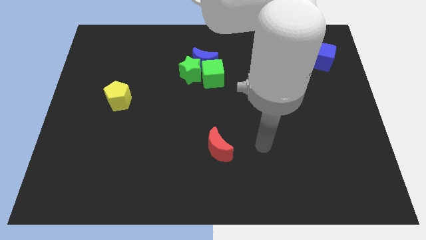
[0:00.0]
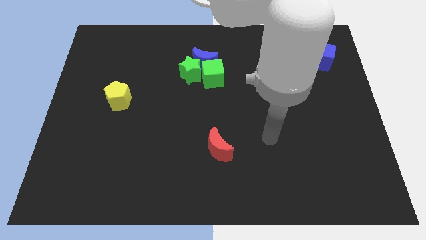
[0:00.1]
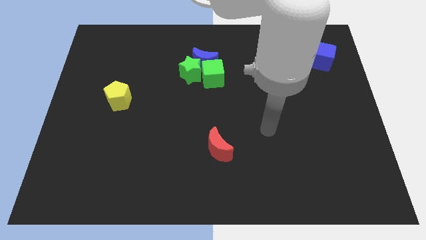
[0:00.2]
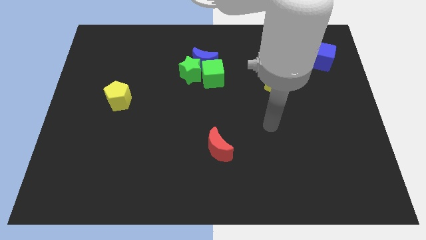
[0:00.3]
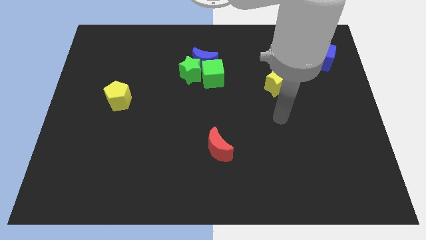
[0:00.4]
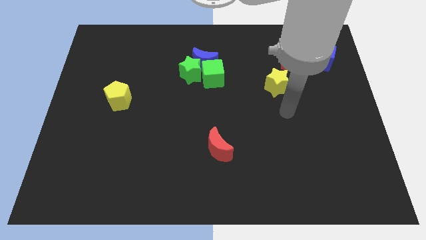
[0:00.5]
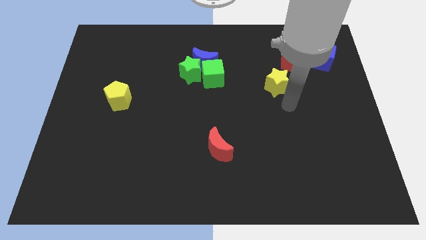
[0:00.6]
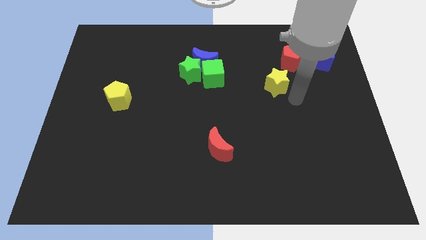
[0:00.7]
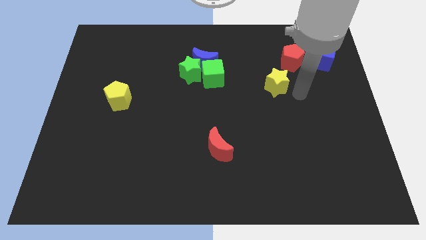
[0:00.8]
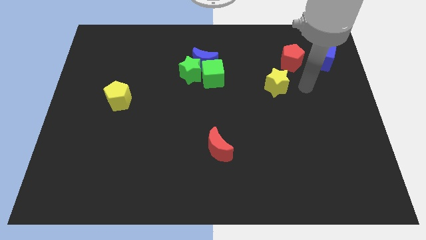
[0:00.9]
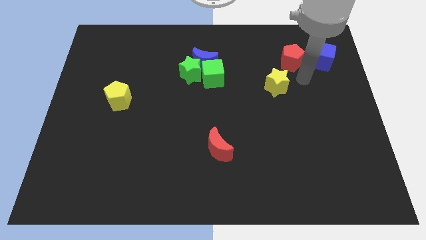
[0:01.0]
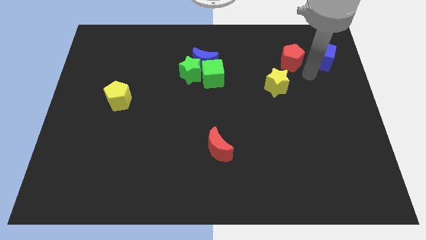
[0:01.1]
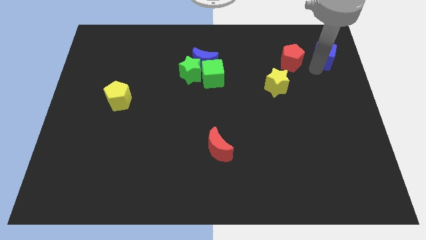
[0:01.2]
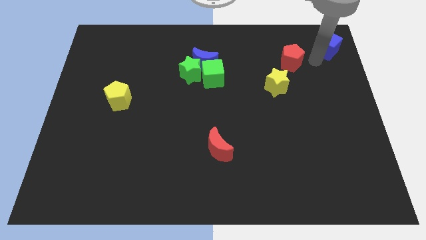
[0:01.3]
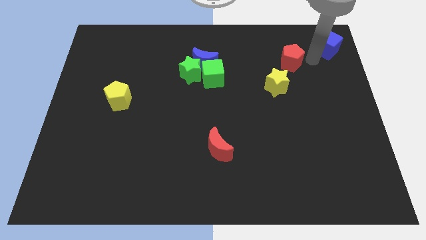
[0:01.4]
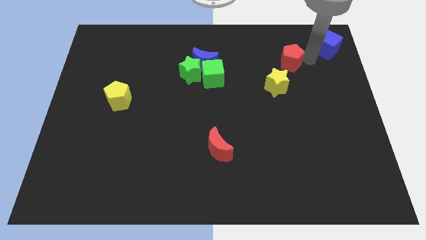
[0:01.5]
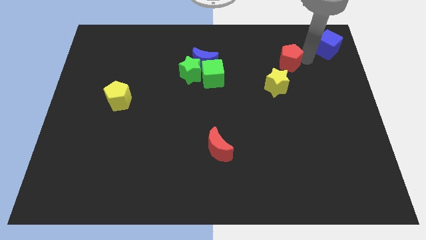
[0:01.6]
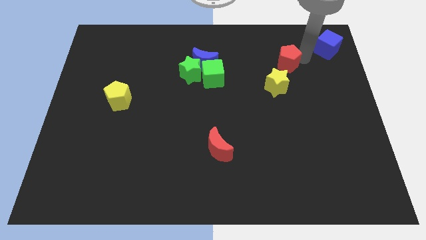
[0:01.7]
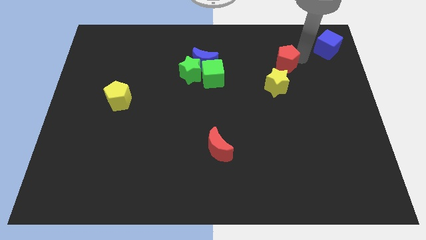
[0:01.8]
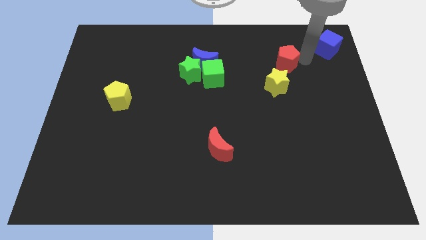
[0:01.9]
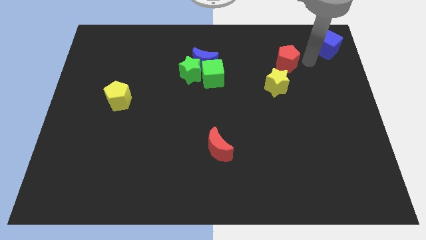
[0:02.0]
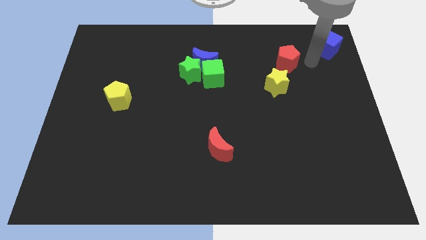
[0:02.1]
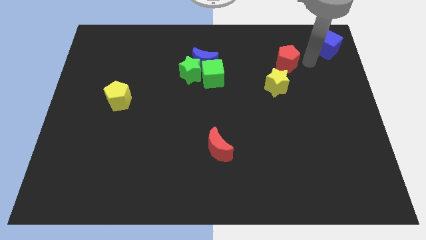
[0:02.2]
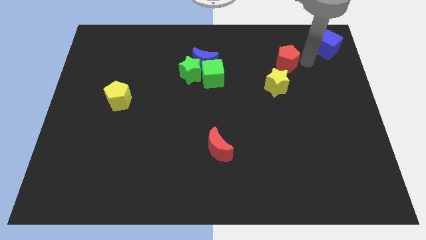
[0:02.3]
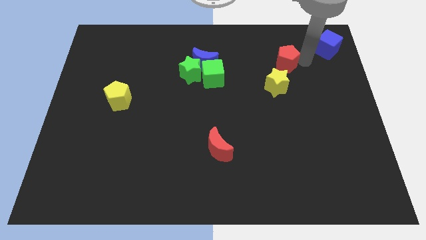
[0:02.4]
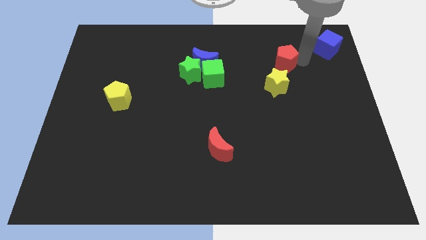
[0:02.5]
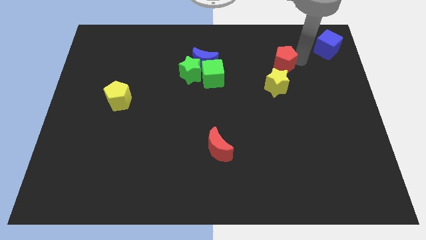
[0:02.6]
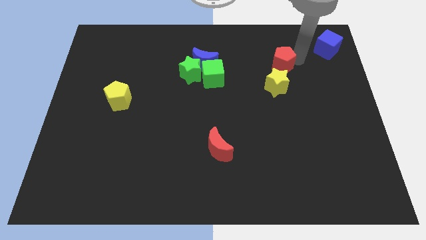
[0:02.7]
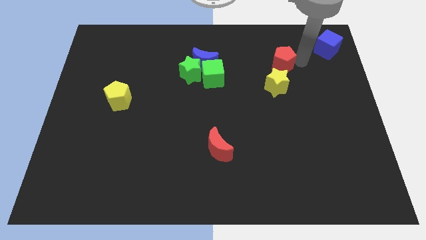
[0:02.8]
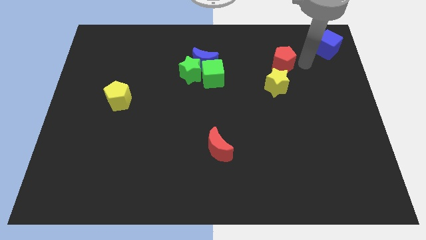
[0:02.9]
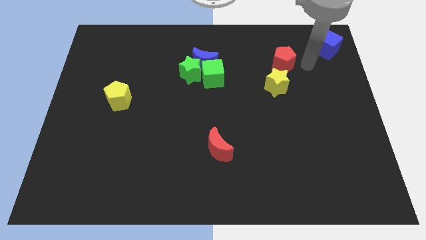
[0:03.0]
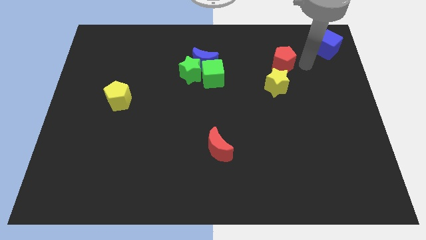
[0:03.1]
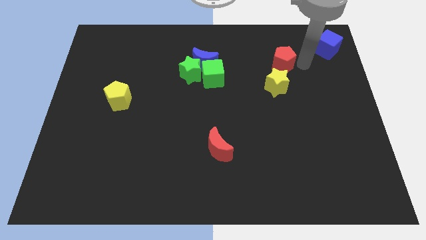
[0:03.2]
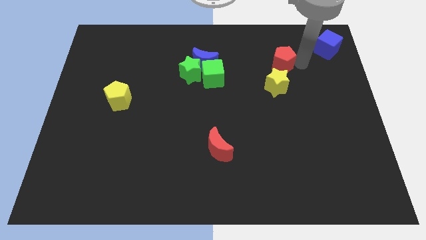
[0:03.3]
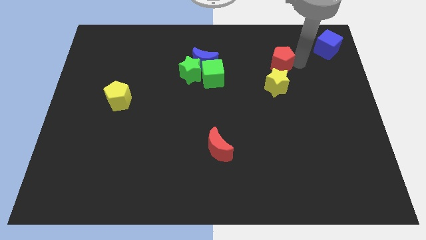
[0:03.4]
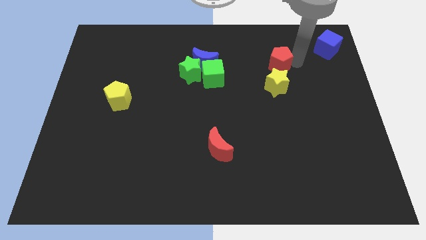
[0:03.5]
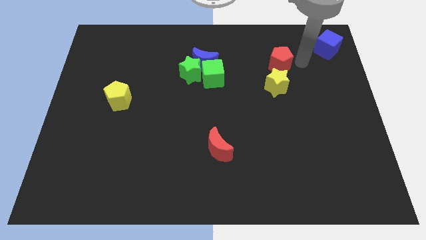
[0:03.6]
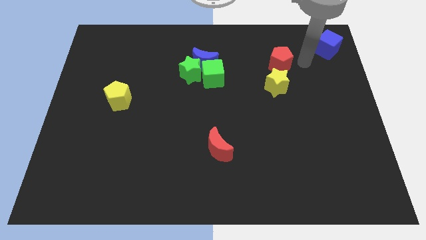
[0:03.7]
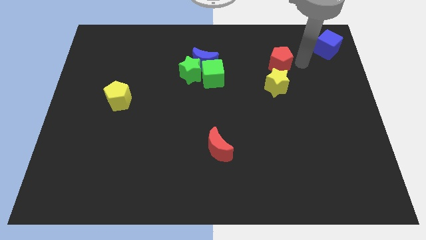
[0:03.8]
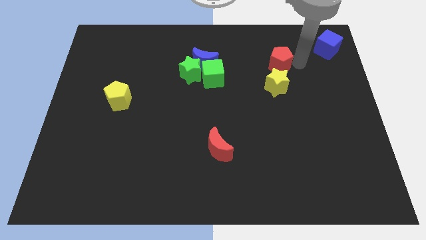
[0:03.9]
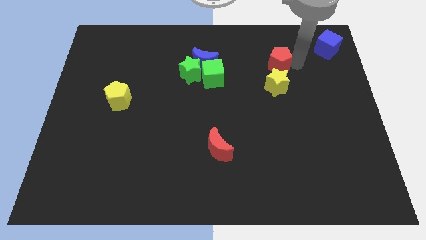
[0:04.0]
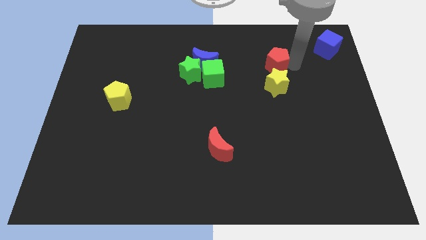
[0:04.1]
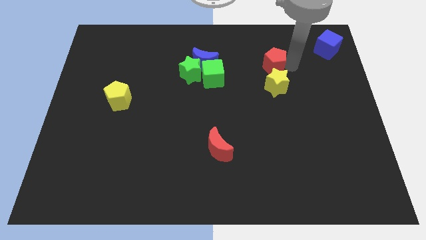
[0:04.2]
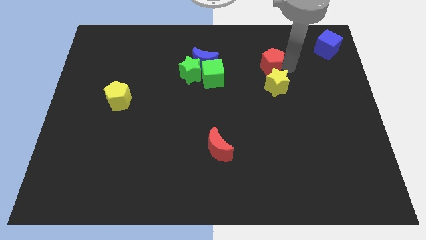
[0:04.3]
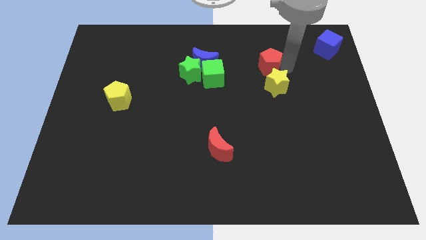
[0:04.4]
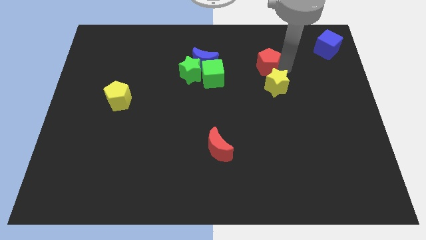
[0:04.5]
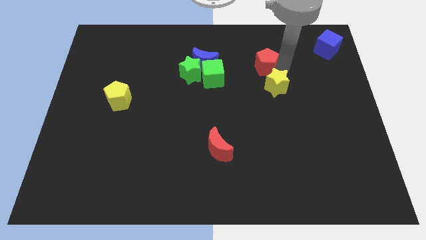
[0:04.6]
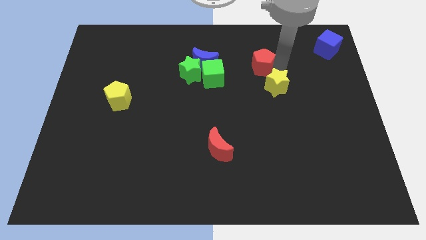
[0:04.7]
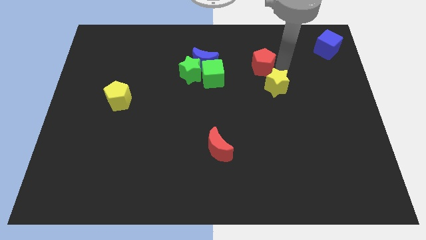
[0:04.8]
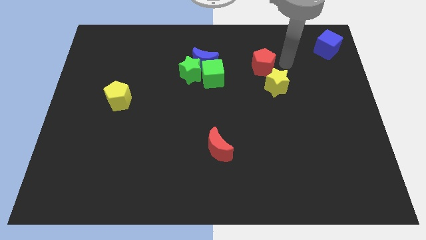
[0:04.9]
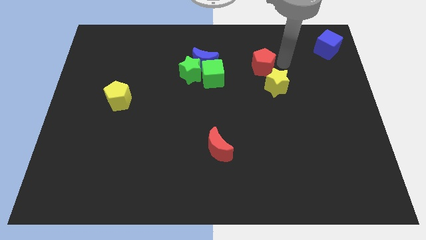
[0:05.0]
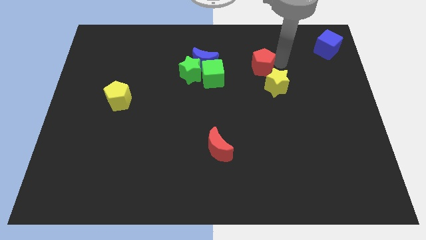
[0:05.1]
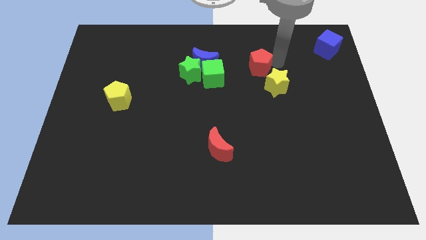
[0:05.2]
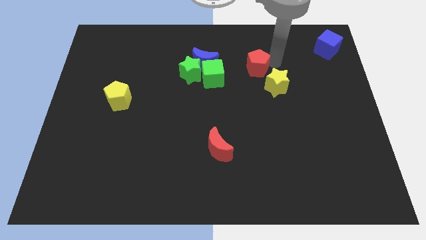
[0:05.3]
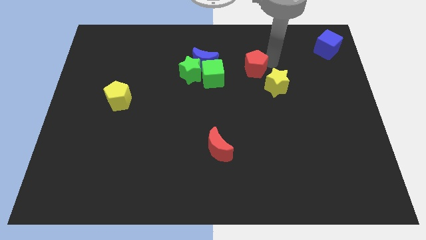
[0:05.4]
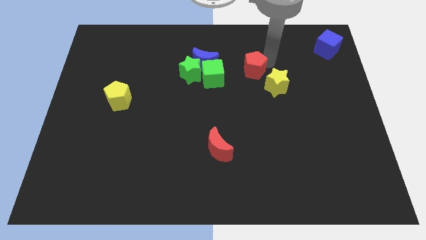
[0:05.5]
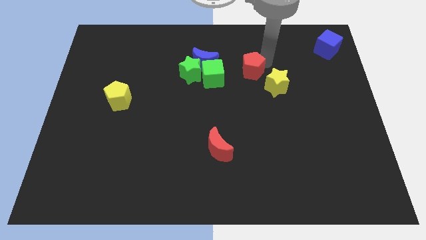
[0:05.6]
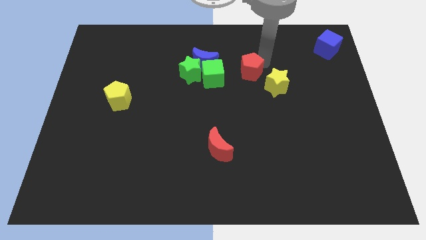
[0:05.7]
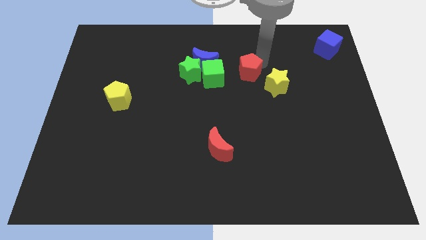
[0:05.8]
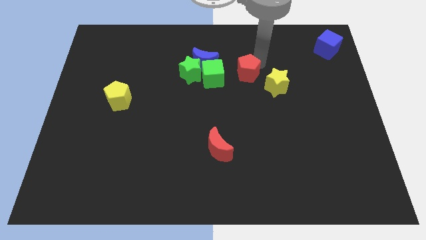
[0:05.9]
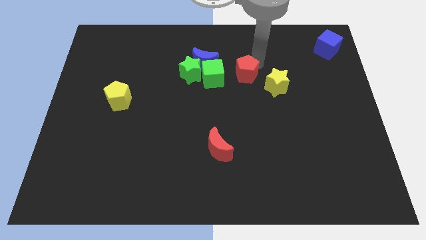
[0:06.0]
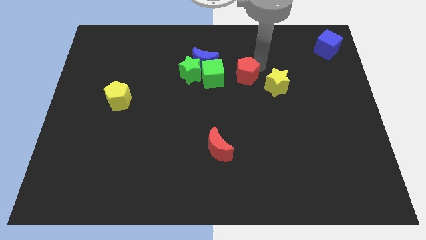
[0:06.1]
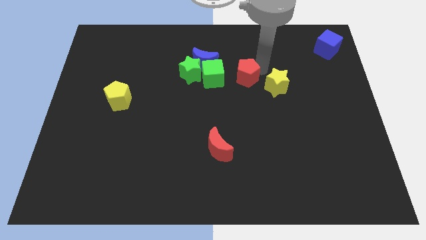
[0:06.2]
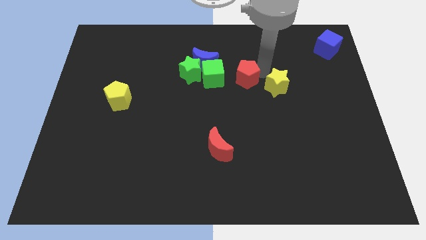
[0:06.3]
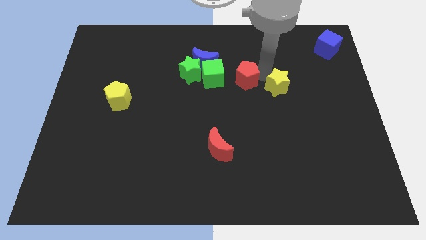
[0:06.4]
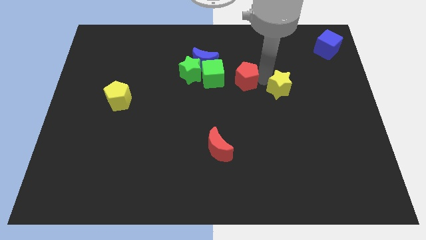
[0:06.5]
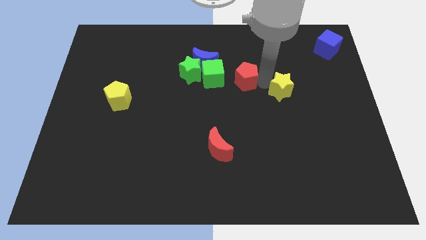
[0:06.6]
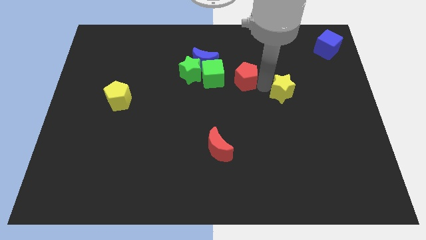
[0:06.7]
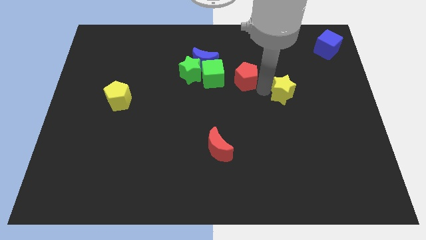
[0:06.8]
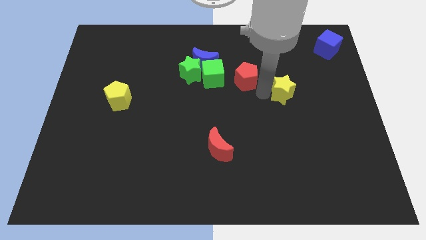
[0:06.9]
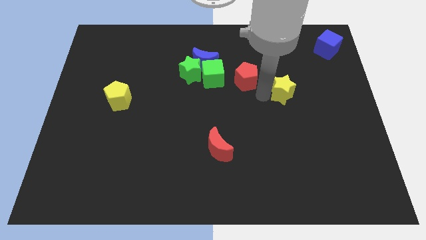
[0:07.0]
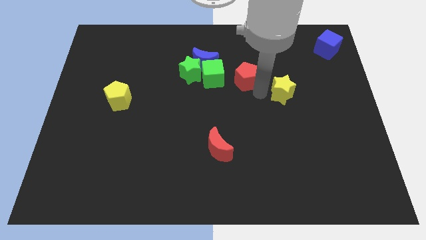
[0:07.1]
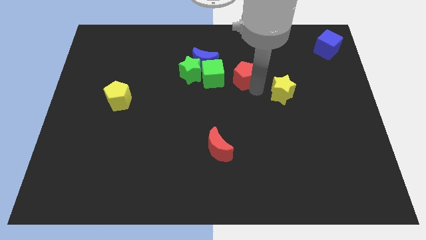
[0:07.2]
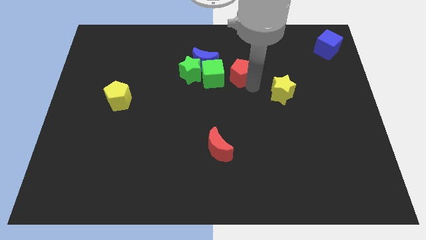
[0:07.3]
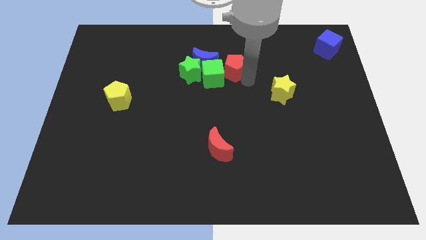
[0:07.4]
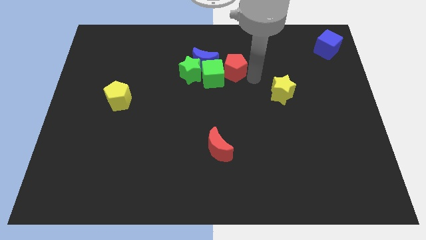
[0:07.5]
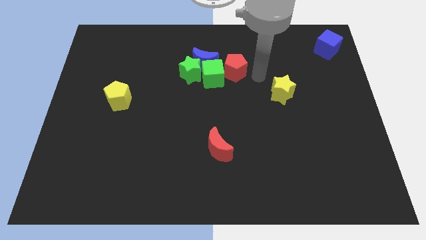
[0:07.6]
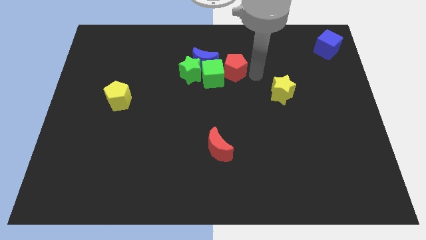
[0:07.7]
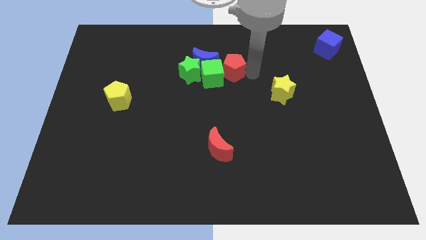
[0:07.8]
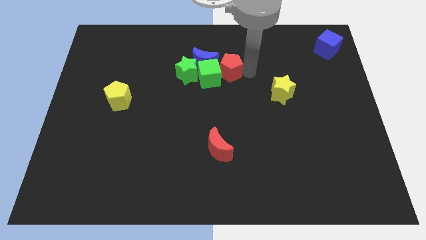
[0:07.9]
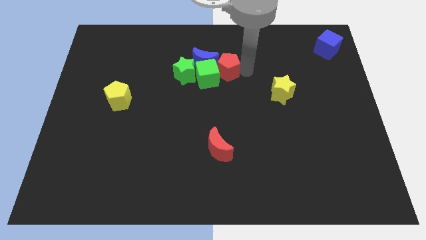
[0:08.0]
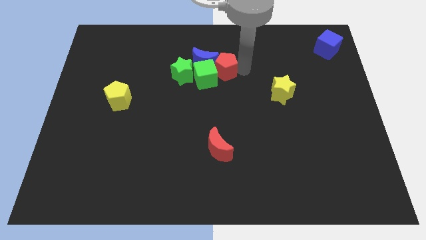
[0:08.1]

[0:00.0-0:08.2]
move the red pentagon close to the blue moon
